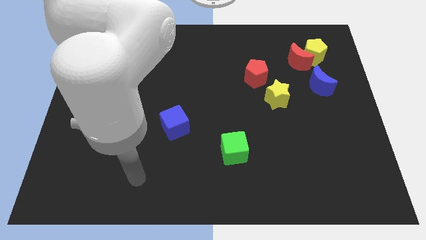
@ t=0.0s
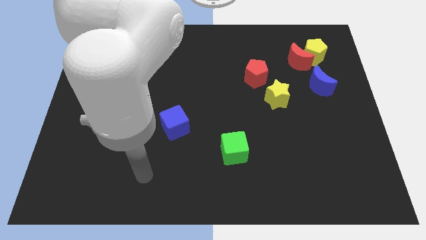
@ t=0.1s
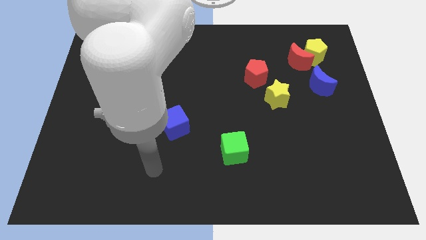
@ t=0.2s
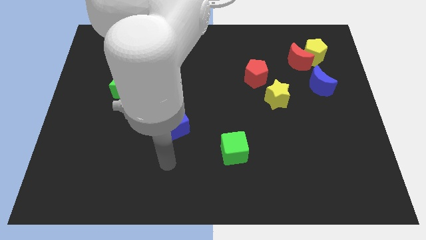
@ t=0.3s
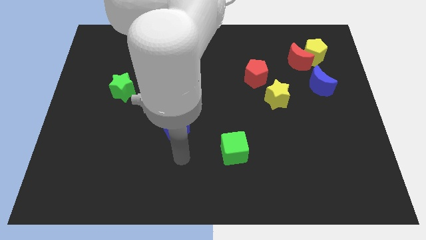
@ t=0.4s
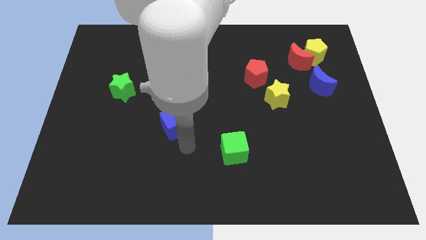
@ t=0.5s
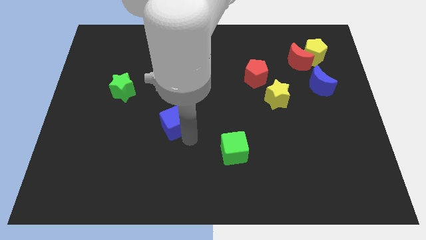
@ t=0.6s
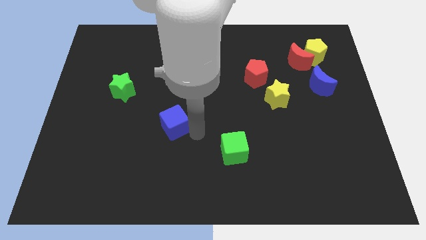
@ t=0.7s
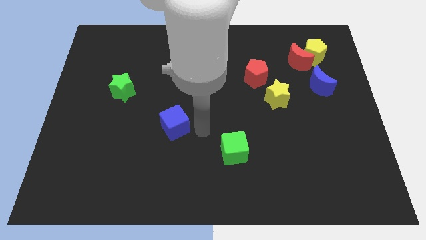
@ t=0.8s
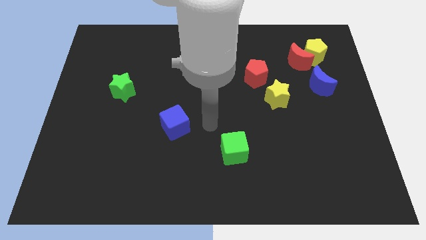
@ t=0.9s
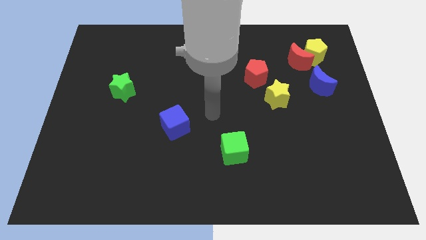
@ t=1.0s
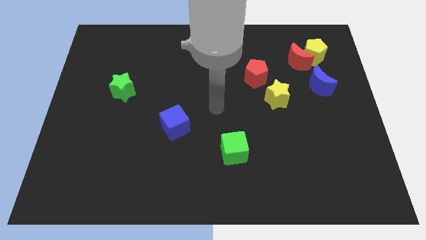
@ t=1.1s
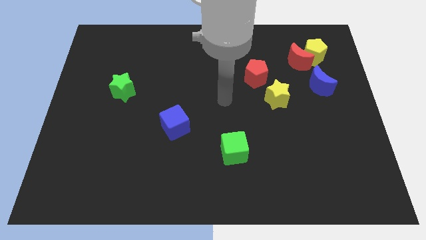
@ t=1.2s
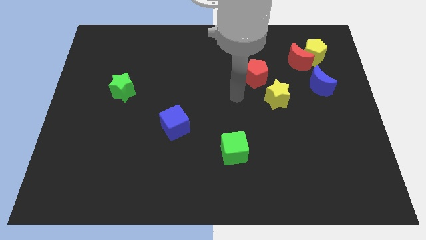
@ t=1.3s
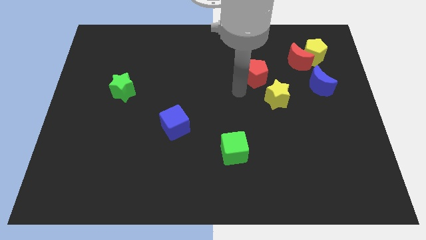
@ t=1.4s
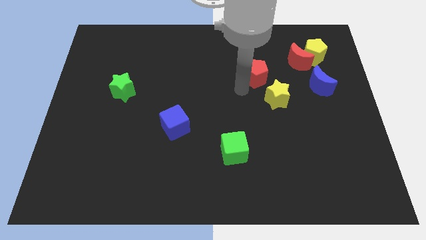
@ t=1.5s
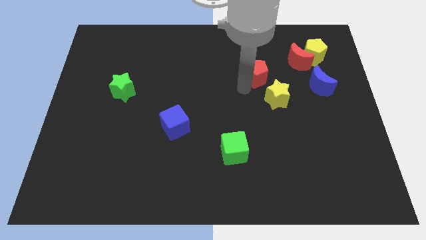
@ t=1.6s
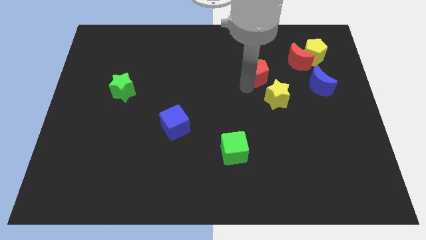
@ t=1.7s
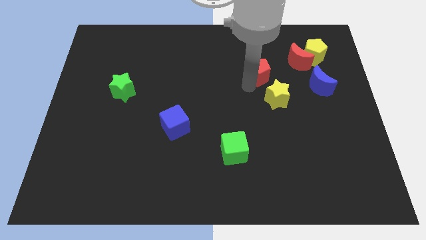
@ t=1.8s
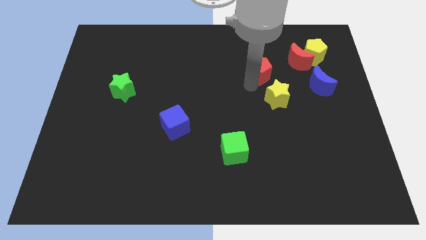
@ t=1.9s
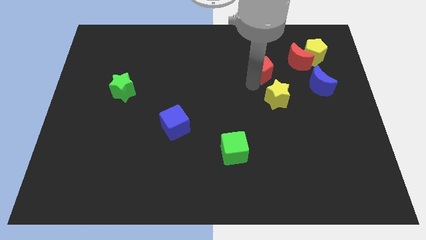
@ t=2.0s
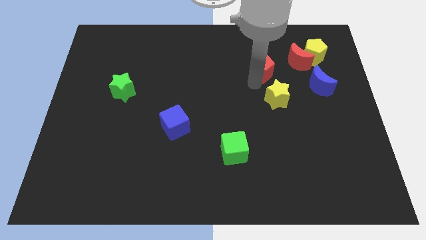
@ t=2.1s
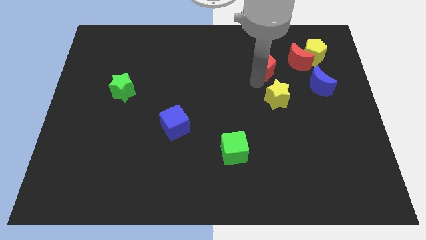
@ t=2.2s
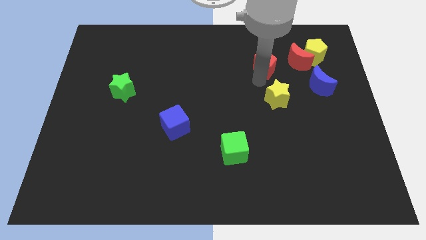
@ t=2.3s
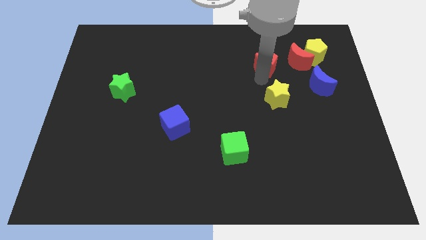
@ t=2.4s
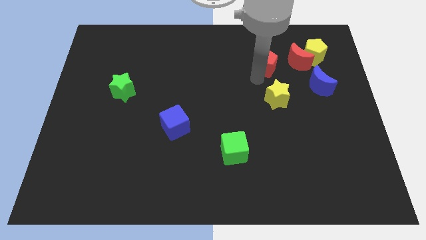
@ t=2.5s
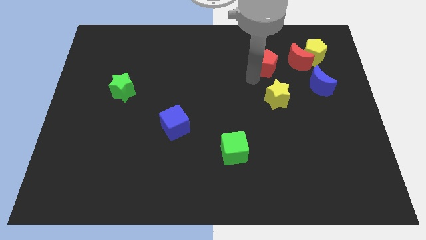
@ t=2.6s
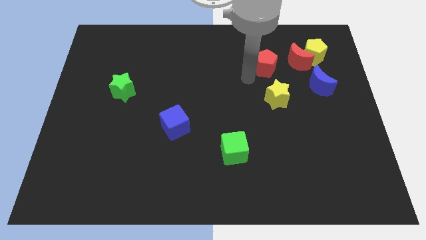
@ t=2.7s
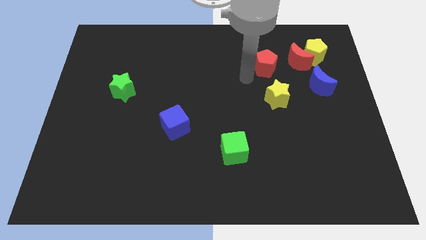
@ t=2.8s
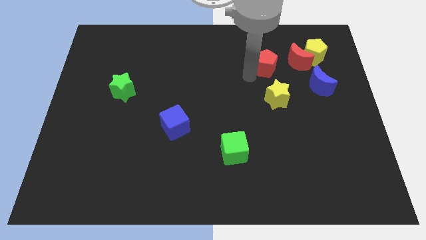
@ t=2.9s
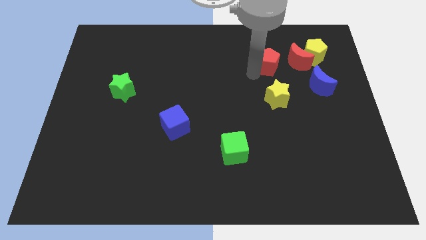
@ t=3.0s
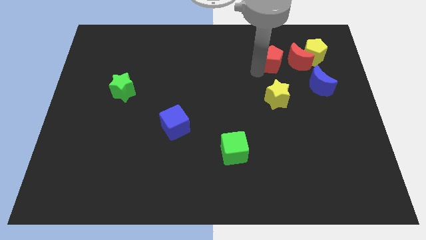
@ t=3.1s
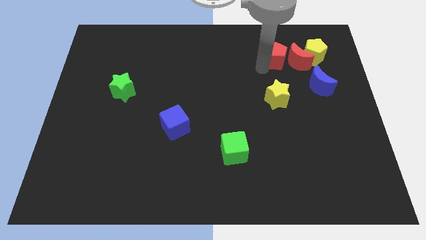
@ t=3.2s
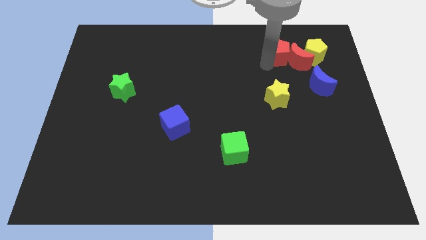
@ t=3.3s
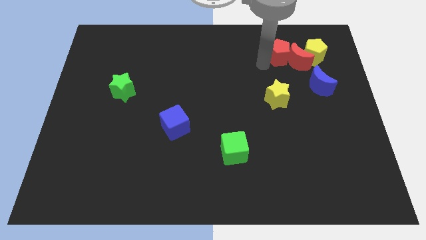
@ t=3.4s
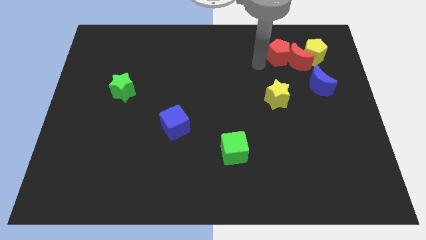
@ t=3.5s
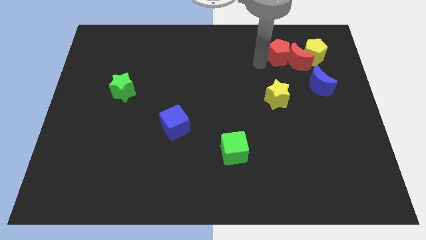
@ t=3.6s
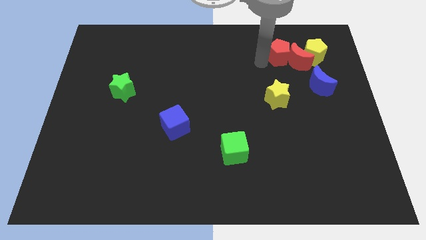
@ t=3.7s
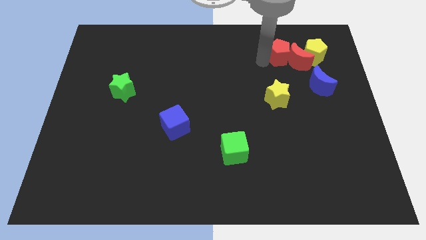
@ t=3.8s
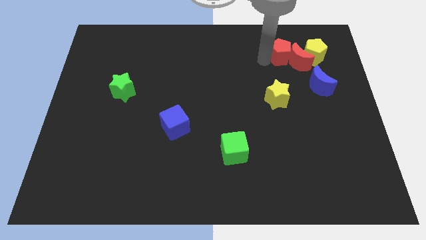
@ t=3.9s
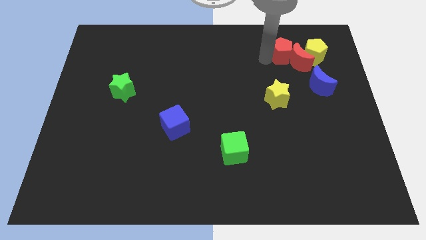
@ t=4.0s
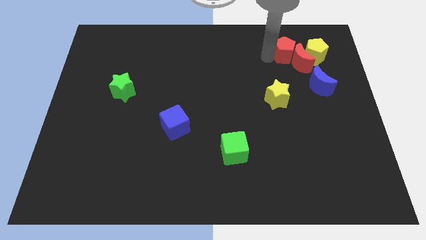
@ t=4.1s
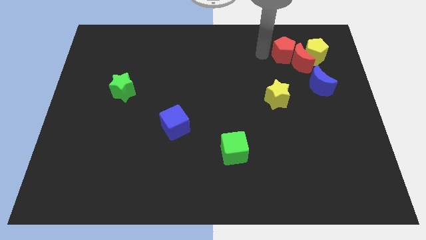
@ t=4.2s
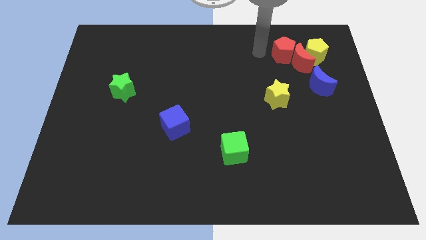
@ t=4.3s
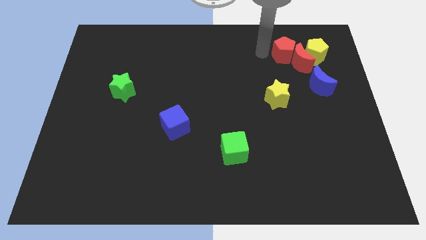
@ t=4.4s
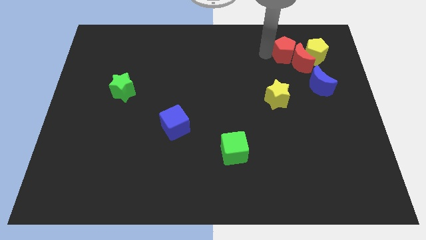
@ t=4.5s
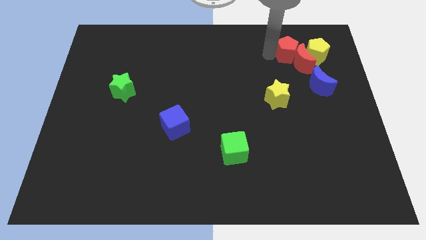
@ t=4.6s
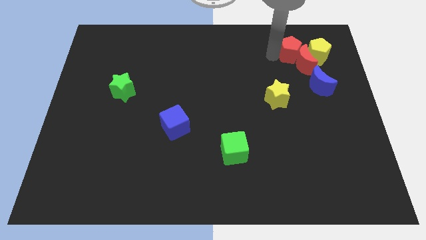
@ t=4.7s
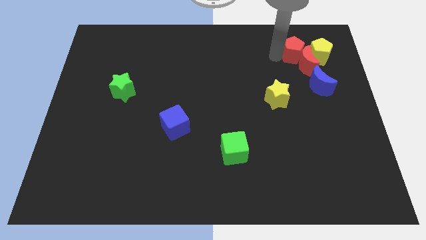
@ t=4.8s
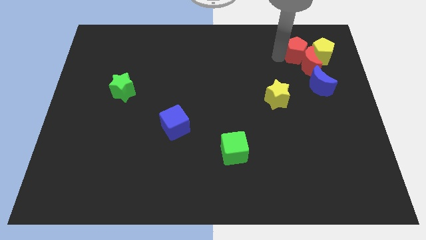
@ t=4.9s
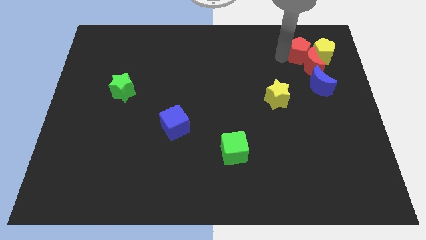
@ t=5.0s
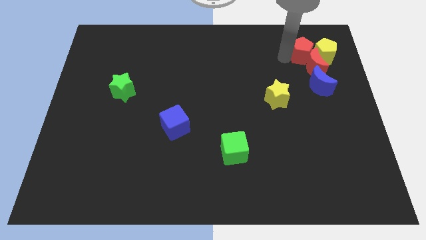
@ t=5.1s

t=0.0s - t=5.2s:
push the red pentagon close to the yellow pentagon

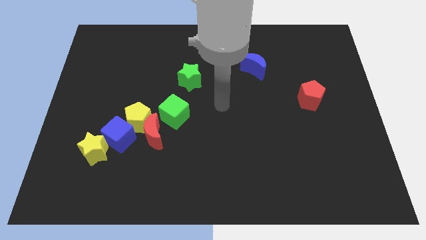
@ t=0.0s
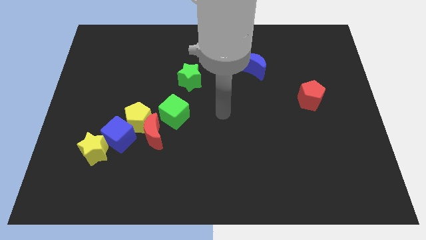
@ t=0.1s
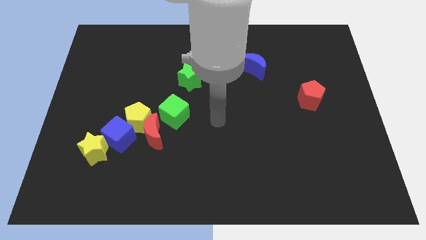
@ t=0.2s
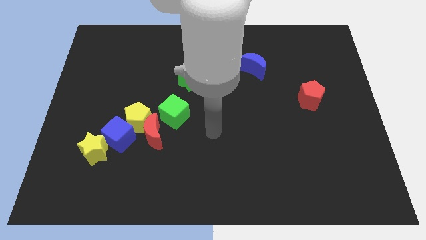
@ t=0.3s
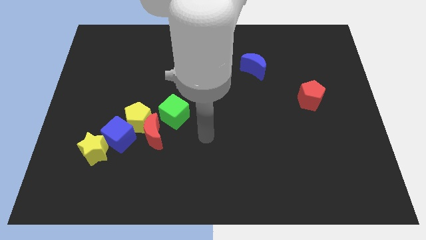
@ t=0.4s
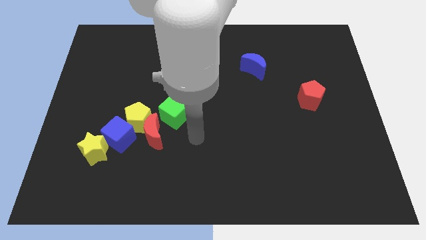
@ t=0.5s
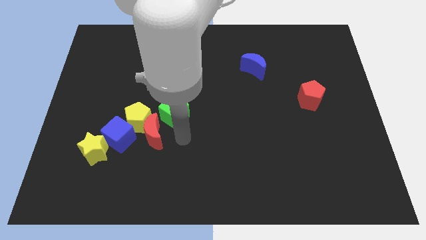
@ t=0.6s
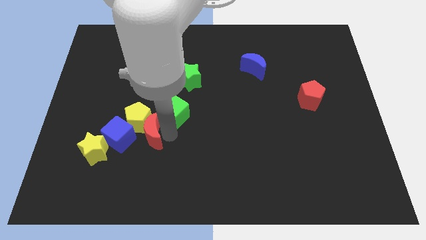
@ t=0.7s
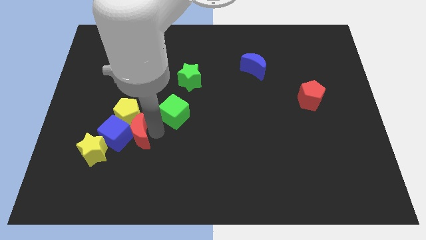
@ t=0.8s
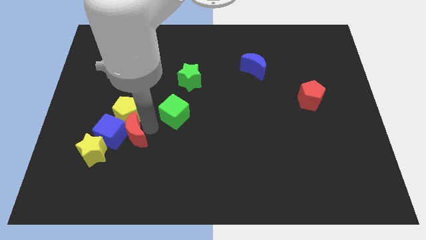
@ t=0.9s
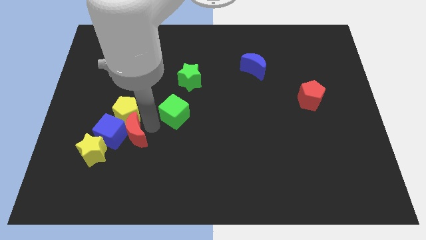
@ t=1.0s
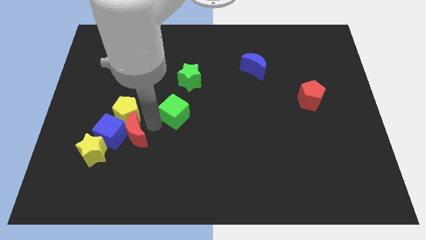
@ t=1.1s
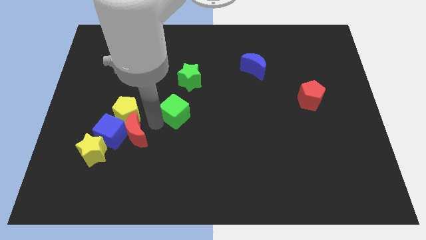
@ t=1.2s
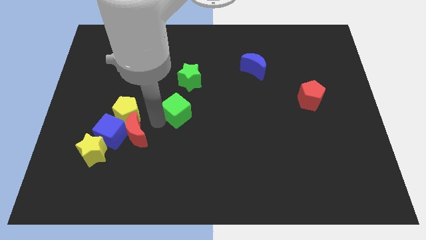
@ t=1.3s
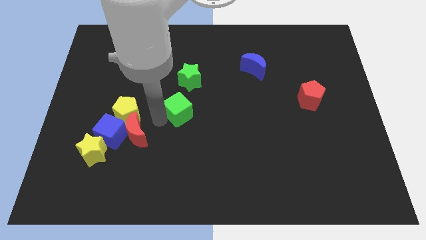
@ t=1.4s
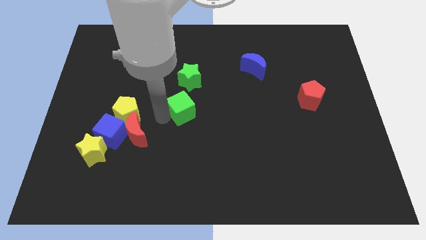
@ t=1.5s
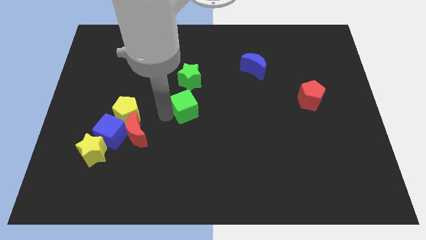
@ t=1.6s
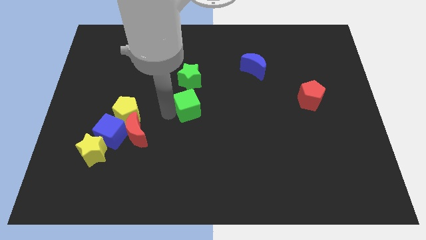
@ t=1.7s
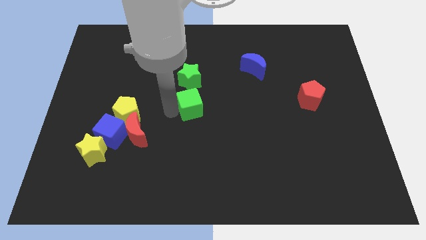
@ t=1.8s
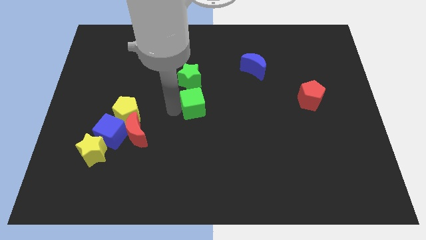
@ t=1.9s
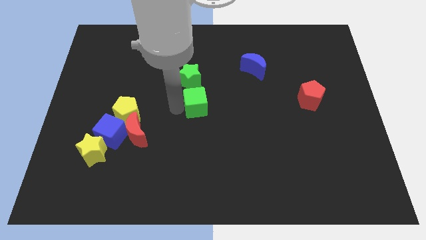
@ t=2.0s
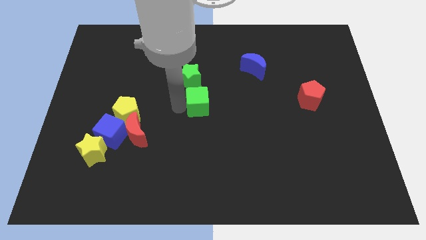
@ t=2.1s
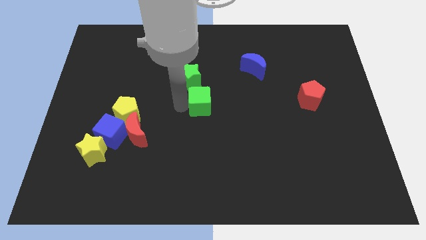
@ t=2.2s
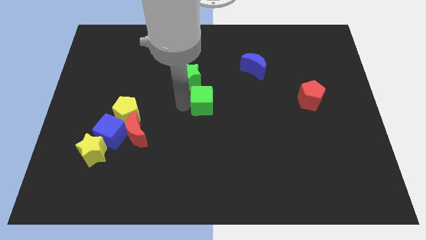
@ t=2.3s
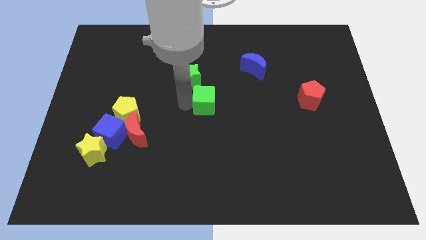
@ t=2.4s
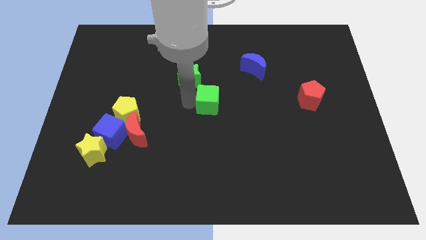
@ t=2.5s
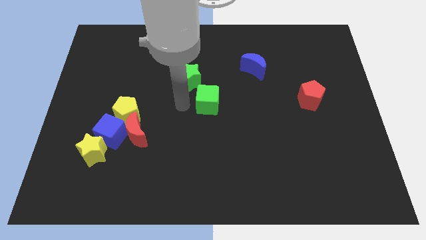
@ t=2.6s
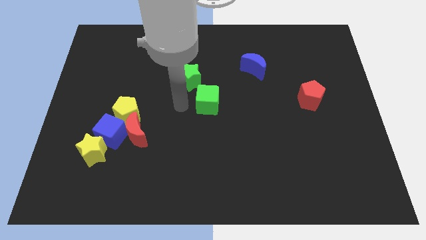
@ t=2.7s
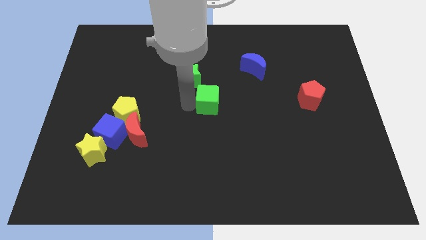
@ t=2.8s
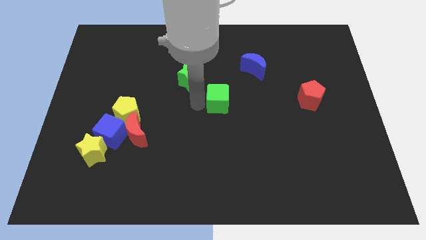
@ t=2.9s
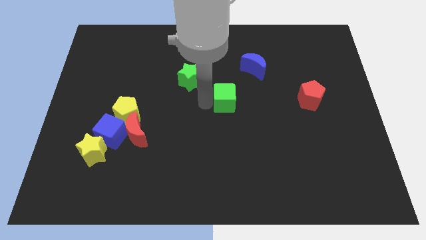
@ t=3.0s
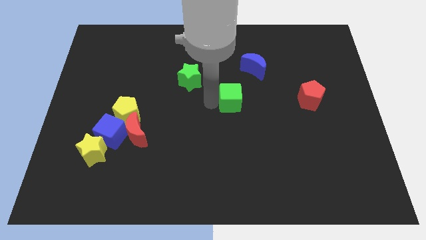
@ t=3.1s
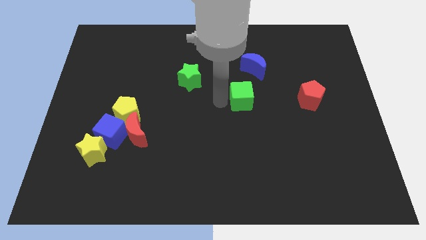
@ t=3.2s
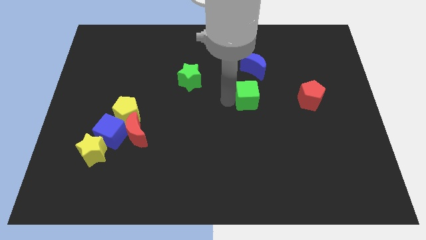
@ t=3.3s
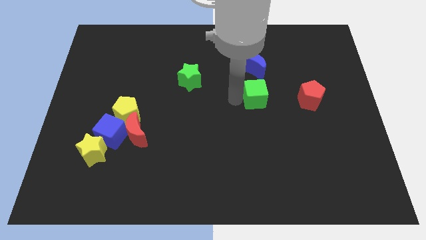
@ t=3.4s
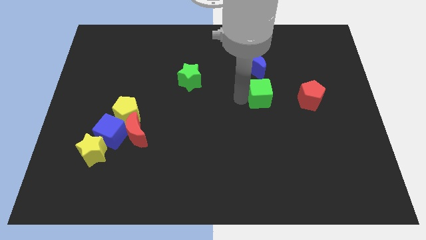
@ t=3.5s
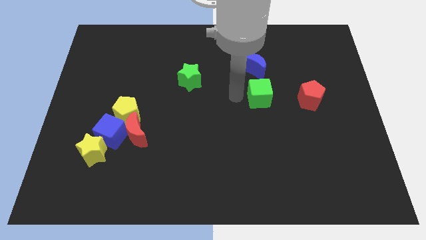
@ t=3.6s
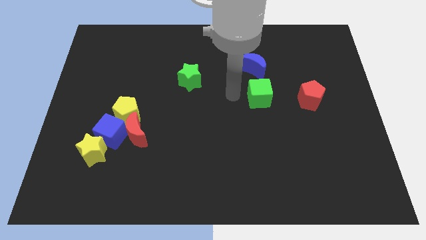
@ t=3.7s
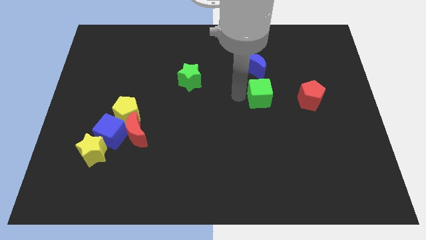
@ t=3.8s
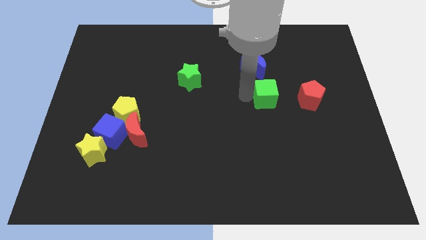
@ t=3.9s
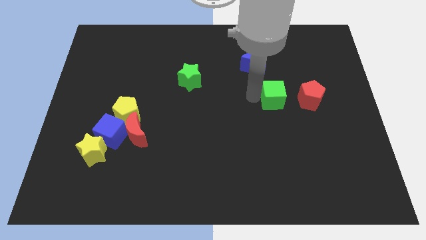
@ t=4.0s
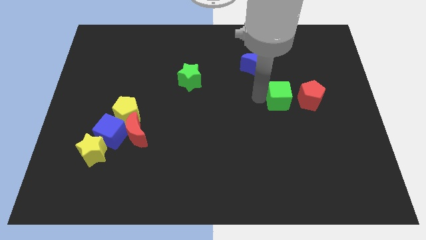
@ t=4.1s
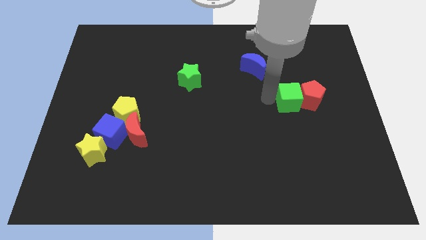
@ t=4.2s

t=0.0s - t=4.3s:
put the green cube to the red pentagon
